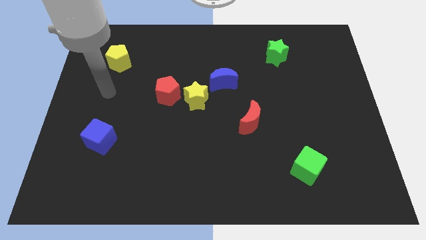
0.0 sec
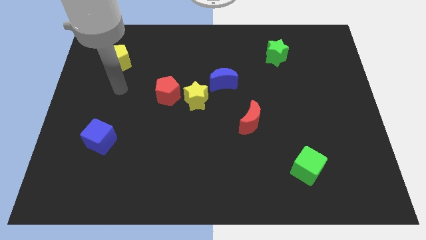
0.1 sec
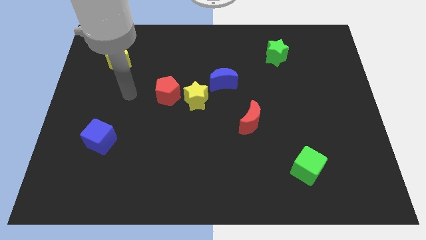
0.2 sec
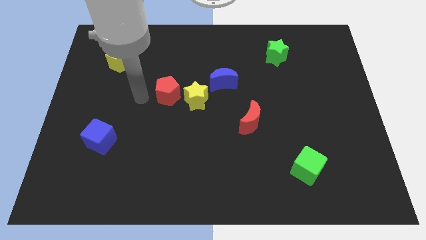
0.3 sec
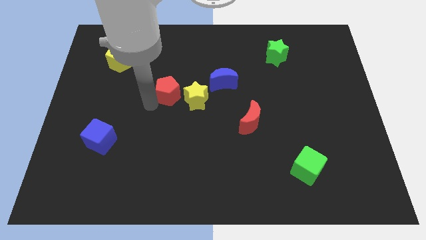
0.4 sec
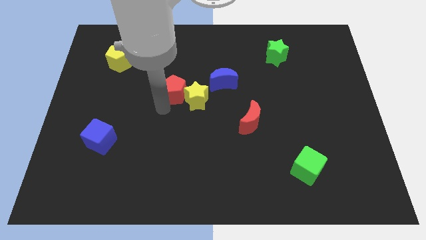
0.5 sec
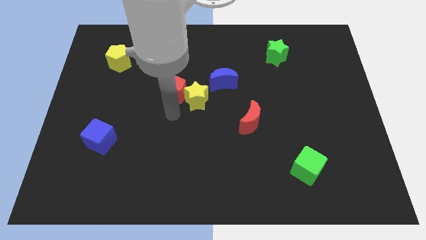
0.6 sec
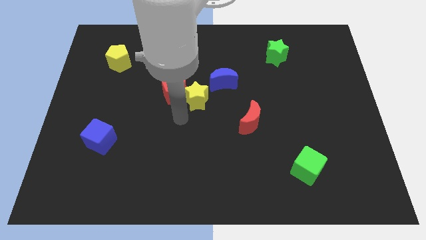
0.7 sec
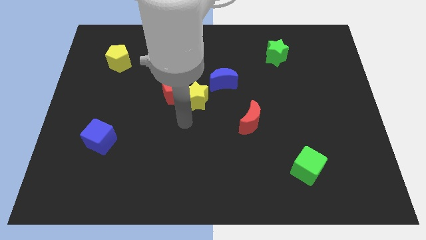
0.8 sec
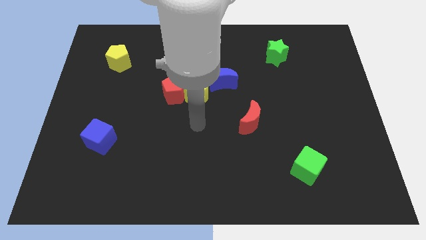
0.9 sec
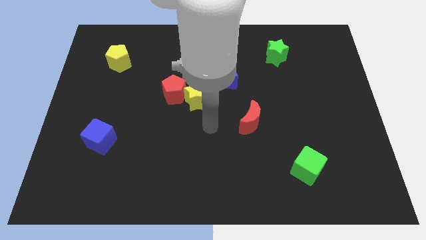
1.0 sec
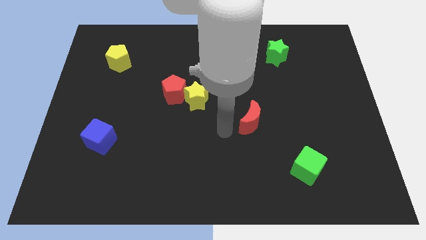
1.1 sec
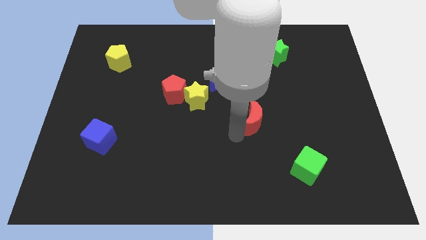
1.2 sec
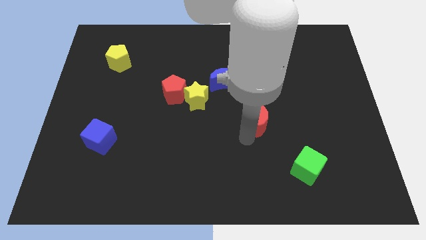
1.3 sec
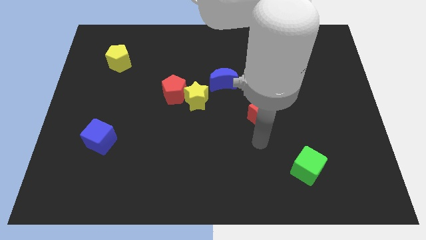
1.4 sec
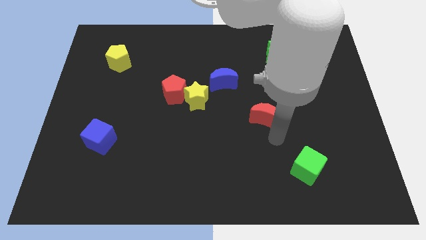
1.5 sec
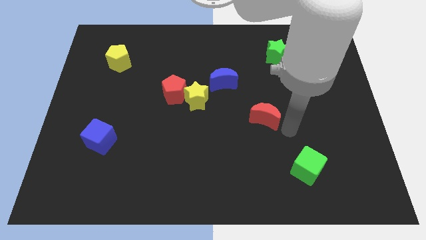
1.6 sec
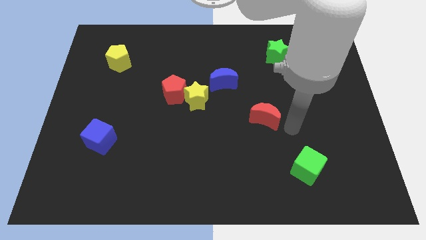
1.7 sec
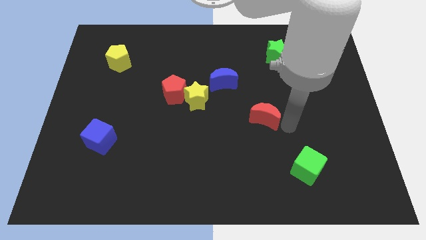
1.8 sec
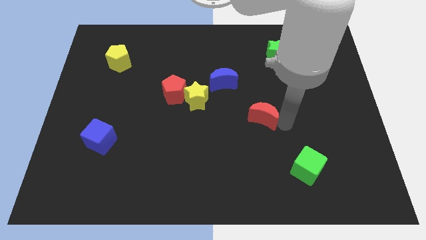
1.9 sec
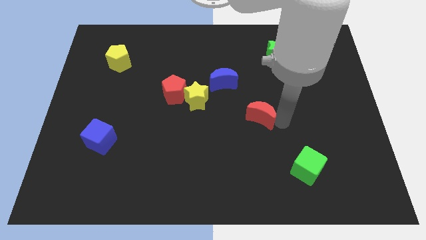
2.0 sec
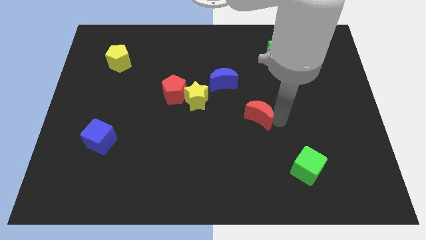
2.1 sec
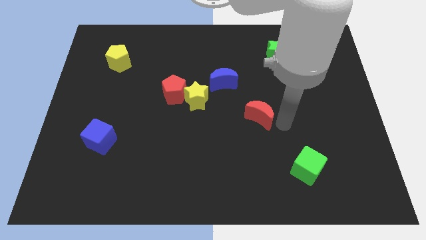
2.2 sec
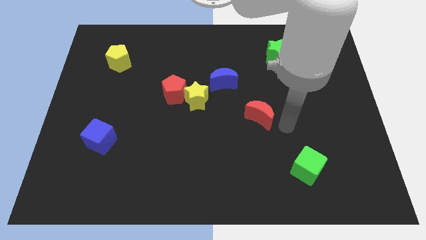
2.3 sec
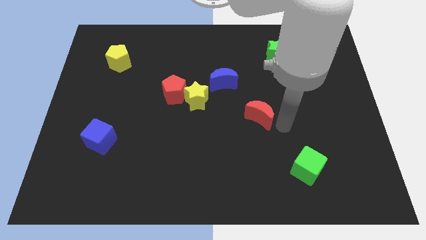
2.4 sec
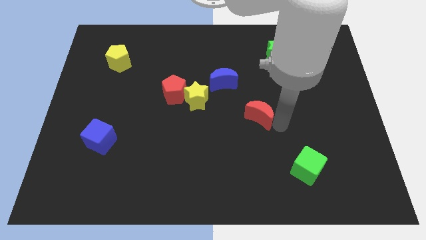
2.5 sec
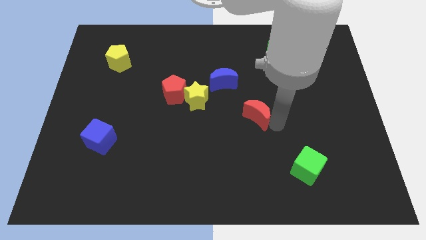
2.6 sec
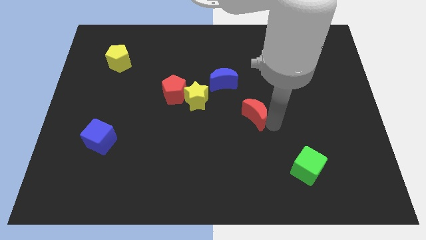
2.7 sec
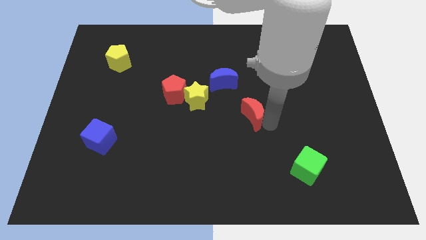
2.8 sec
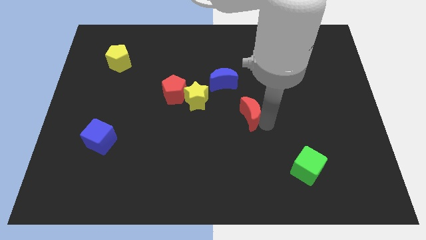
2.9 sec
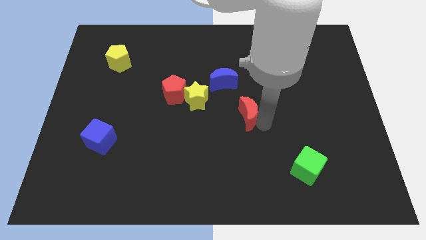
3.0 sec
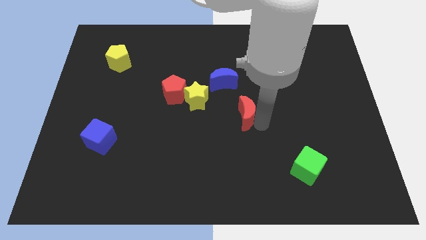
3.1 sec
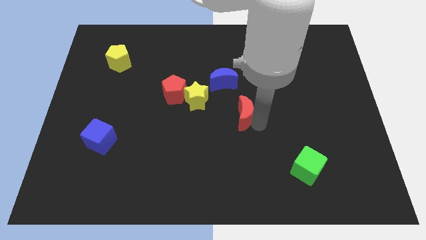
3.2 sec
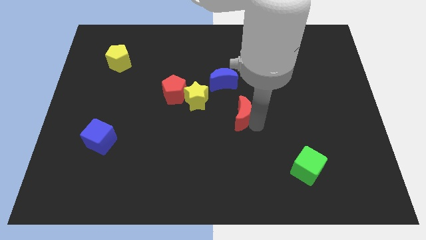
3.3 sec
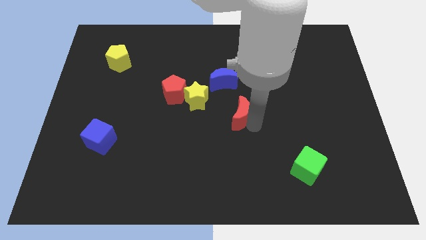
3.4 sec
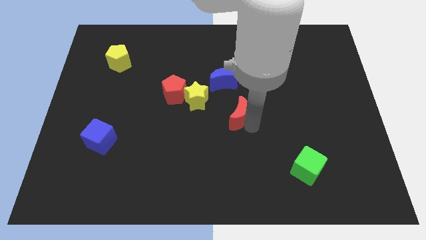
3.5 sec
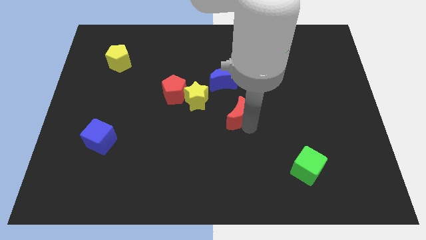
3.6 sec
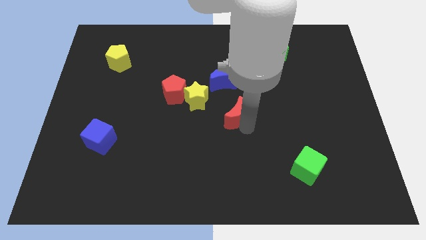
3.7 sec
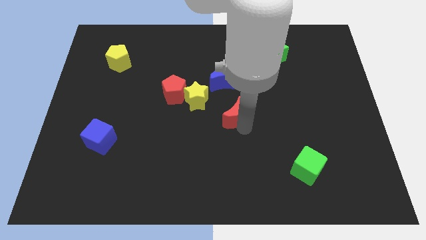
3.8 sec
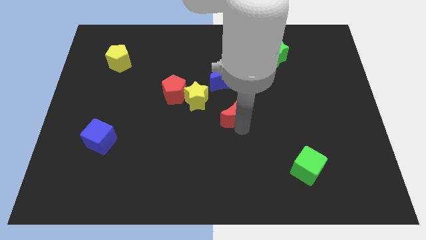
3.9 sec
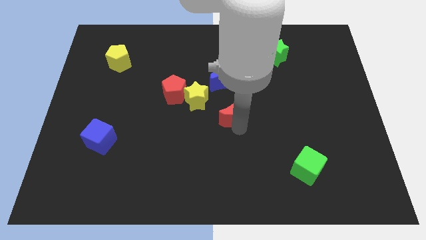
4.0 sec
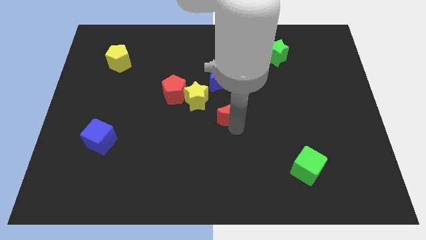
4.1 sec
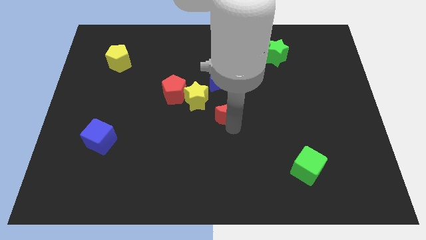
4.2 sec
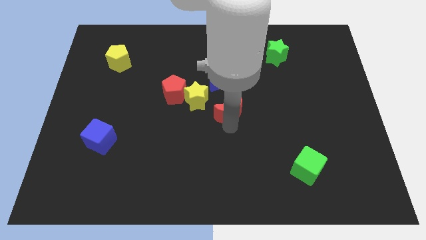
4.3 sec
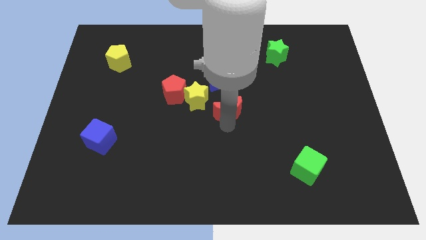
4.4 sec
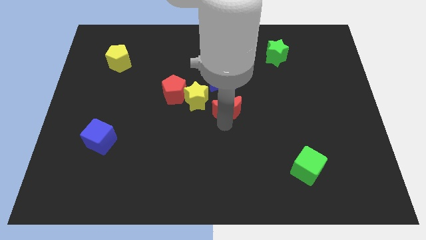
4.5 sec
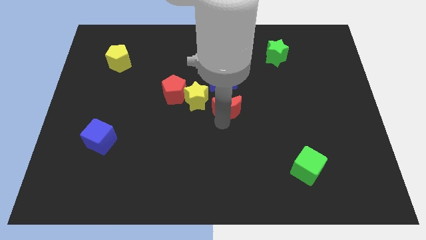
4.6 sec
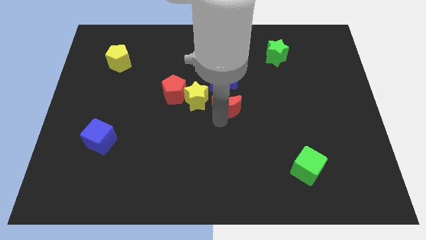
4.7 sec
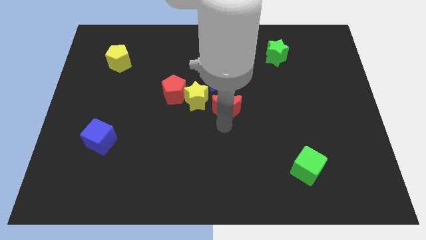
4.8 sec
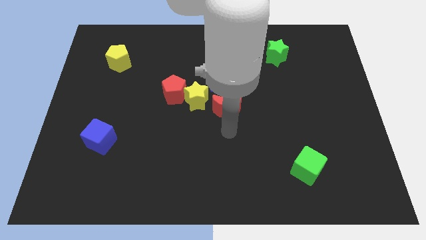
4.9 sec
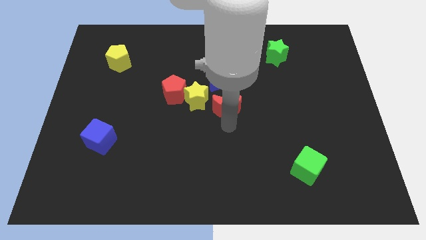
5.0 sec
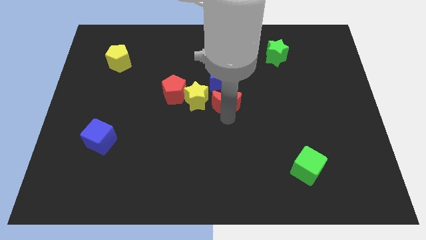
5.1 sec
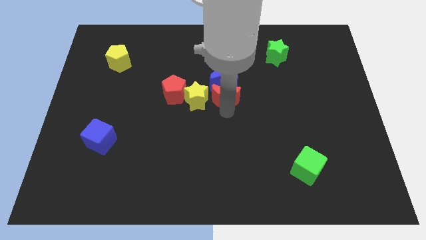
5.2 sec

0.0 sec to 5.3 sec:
push the red moon towards the blue moon

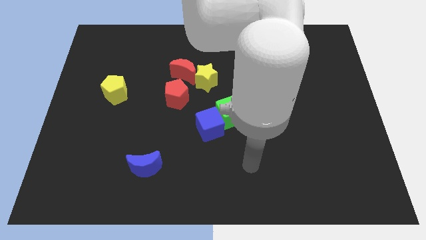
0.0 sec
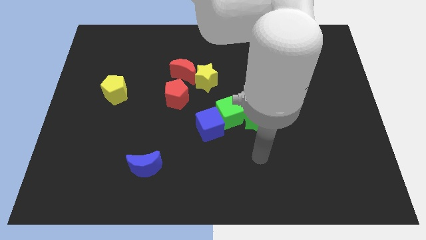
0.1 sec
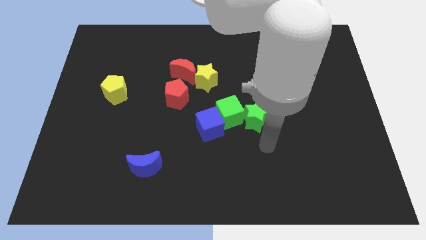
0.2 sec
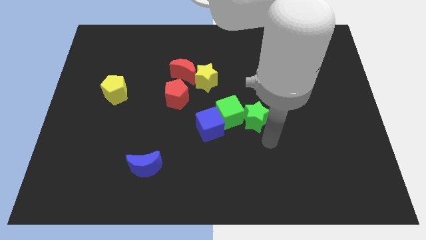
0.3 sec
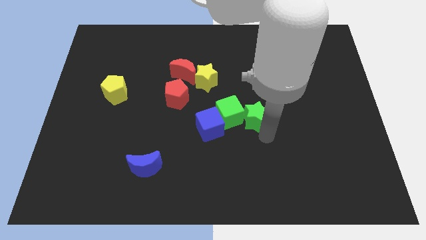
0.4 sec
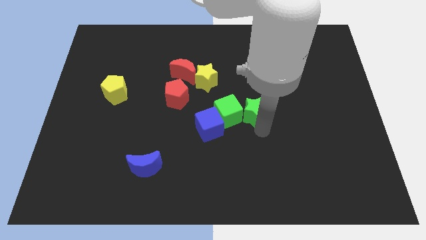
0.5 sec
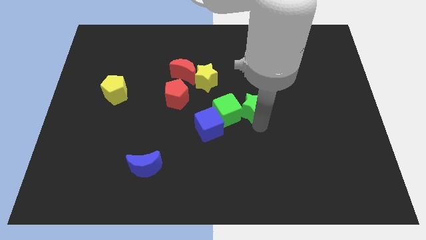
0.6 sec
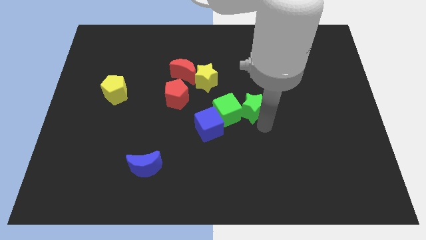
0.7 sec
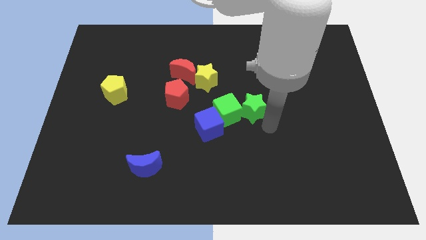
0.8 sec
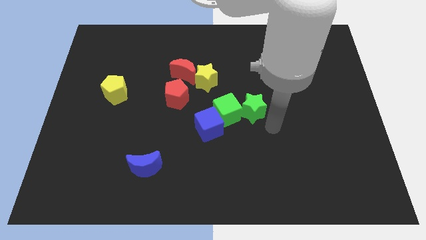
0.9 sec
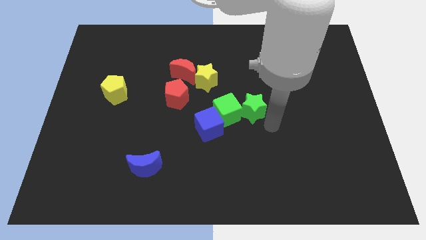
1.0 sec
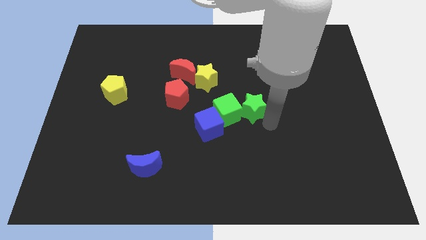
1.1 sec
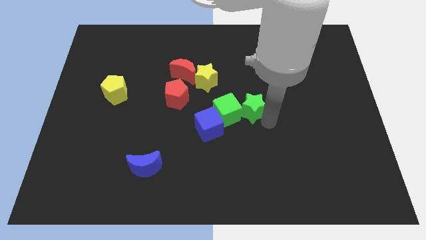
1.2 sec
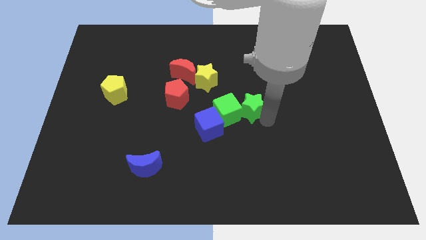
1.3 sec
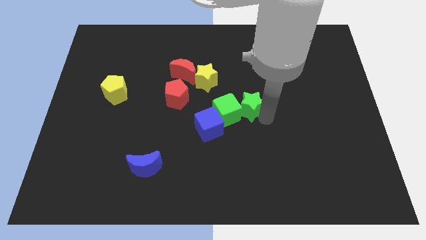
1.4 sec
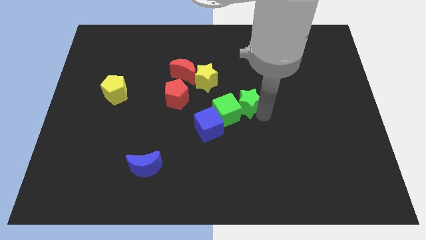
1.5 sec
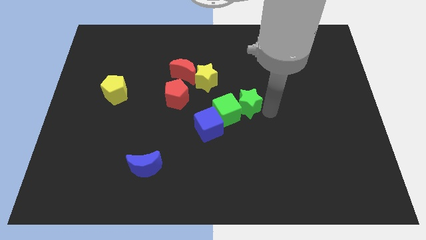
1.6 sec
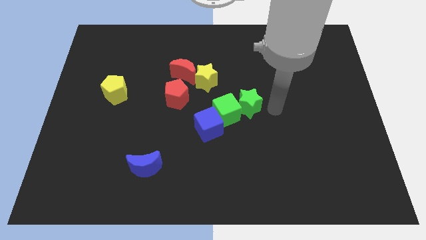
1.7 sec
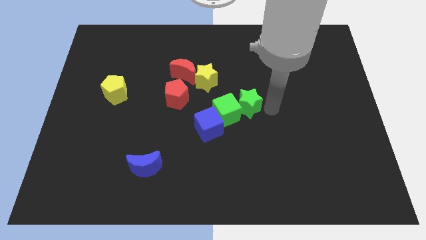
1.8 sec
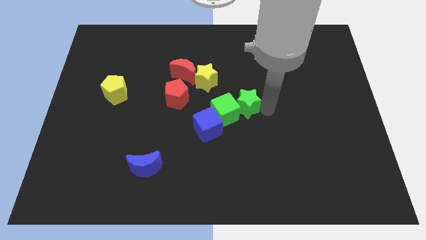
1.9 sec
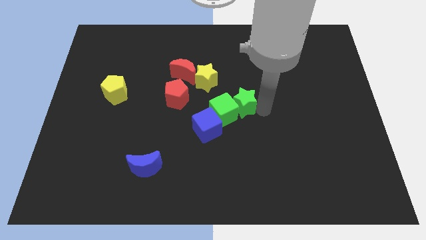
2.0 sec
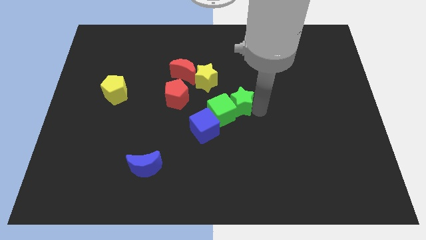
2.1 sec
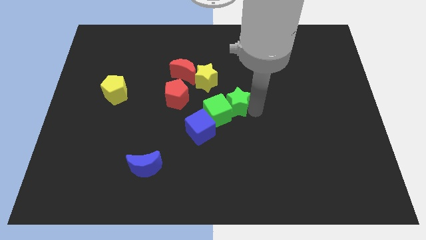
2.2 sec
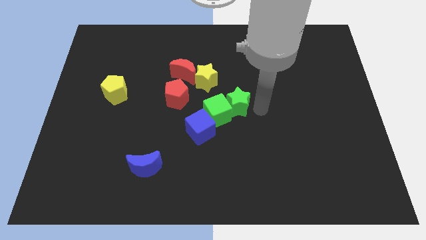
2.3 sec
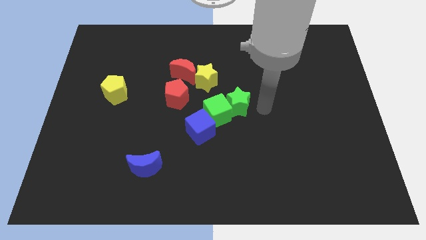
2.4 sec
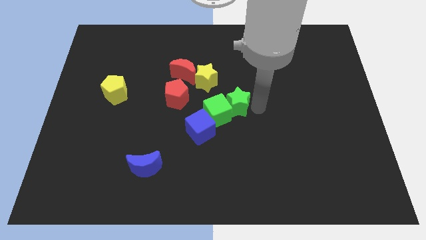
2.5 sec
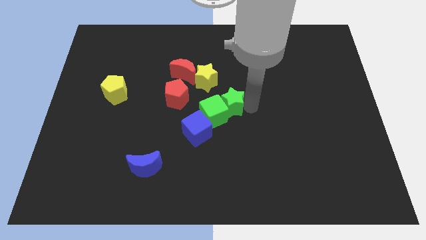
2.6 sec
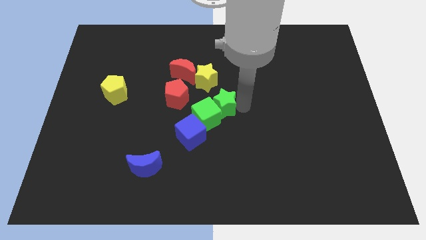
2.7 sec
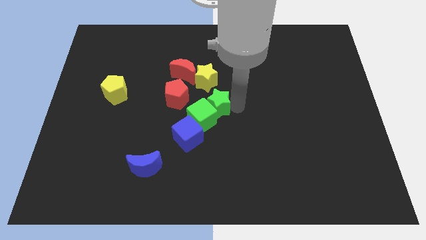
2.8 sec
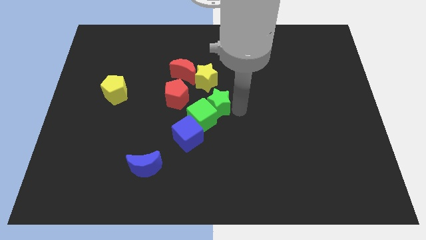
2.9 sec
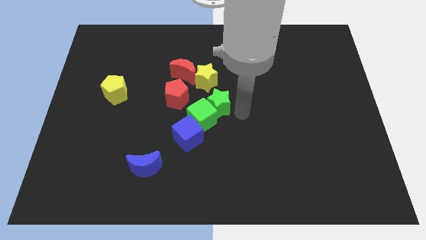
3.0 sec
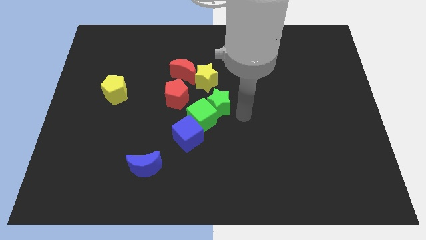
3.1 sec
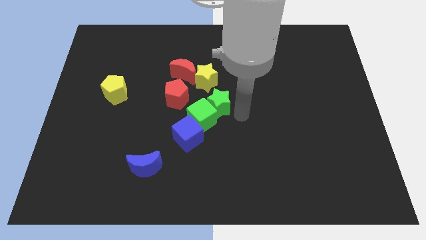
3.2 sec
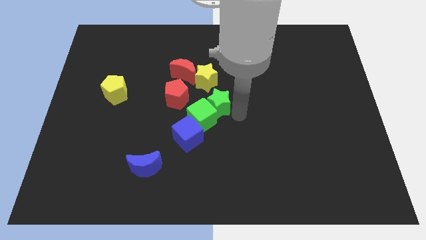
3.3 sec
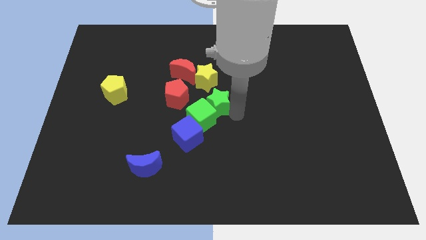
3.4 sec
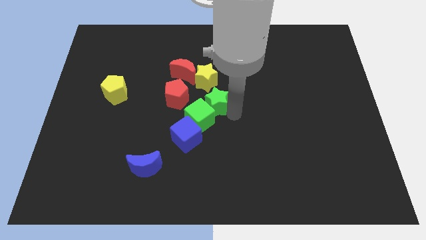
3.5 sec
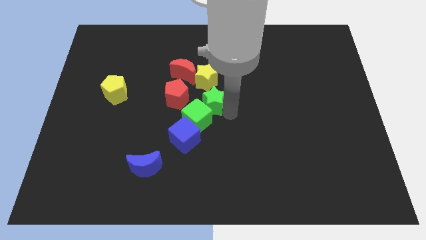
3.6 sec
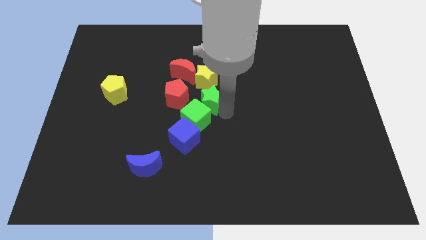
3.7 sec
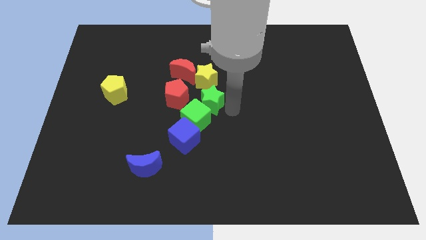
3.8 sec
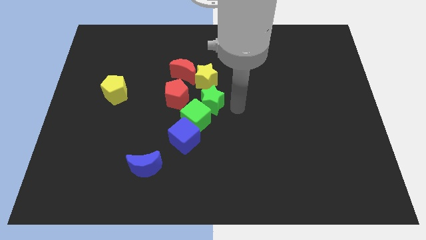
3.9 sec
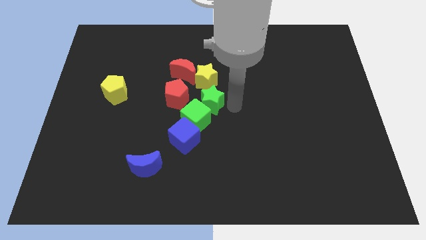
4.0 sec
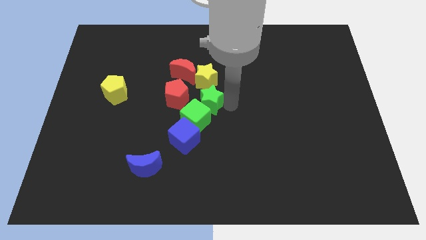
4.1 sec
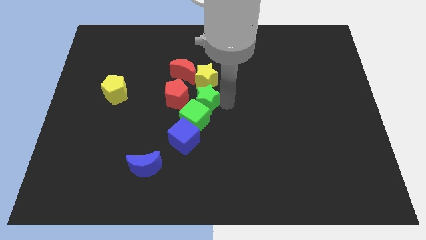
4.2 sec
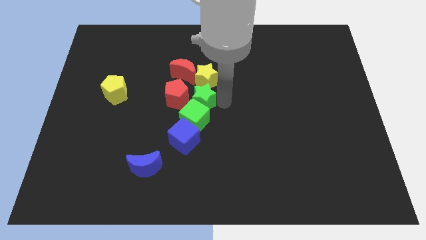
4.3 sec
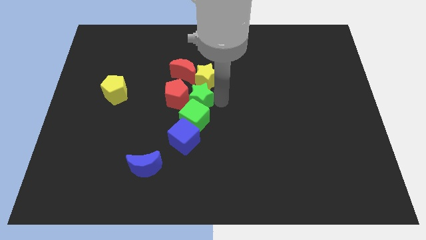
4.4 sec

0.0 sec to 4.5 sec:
move the green star to the red pentagon
